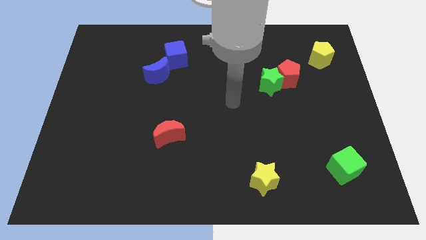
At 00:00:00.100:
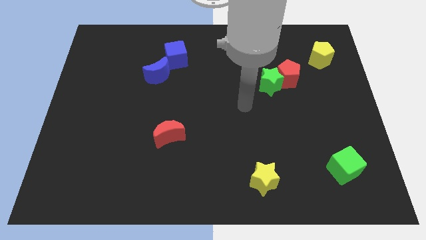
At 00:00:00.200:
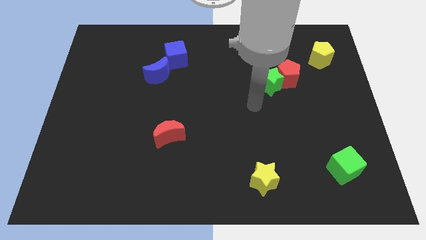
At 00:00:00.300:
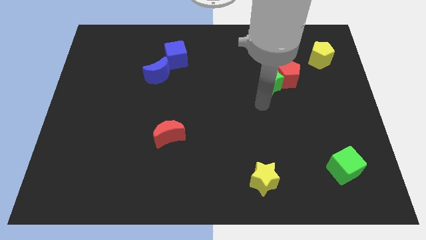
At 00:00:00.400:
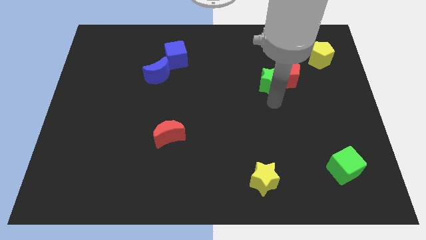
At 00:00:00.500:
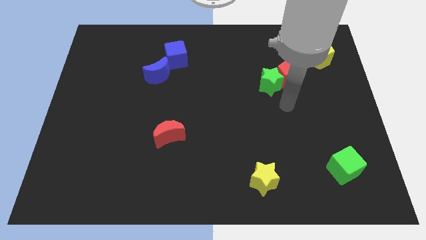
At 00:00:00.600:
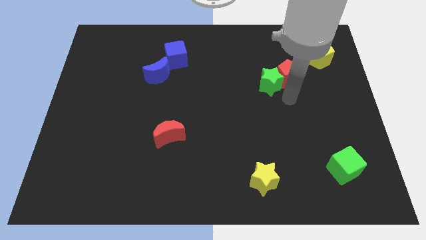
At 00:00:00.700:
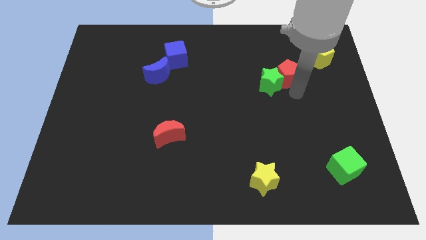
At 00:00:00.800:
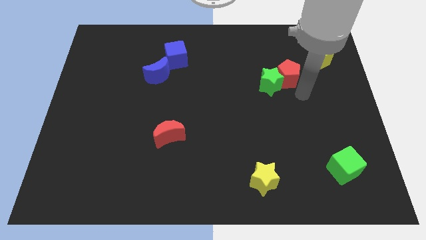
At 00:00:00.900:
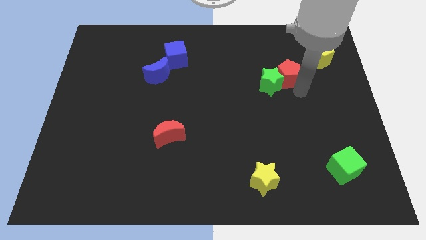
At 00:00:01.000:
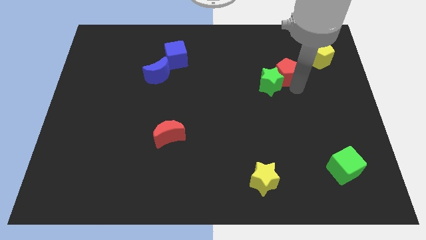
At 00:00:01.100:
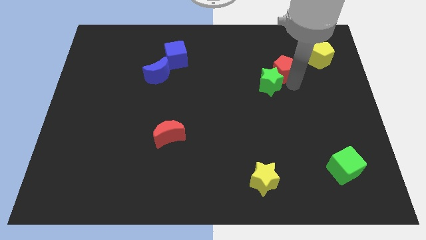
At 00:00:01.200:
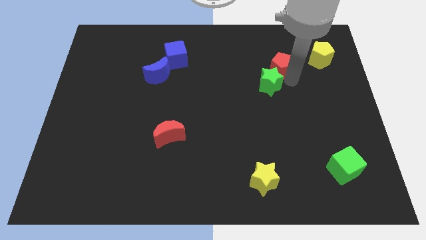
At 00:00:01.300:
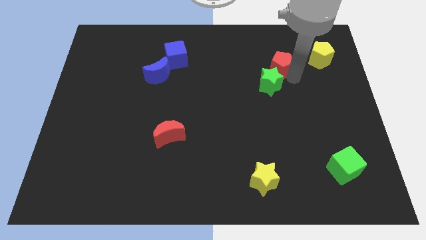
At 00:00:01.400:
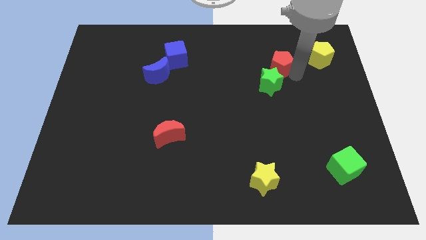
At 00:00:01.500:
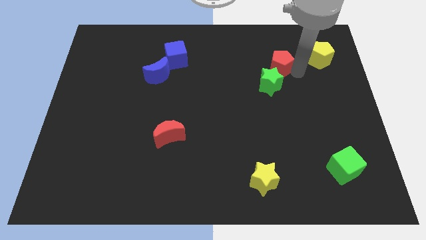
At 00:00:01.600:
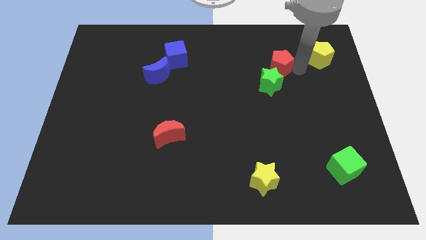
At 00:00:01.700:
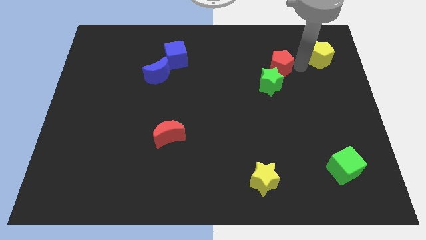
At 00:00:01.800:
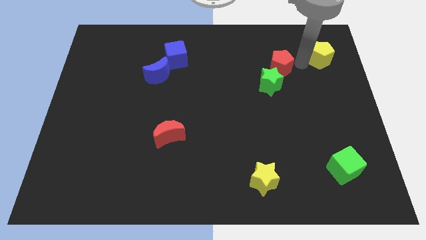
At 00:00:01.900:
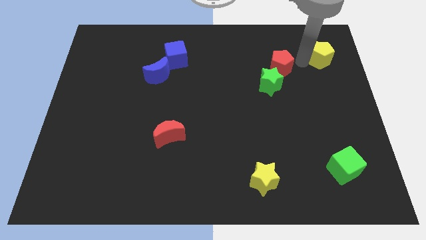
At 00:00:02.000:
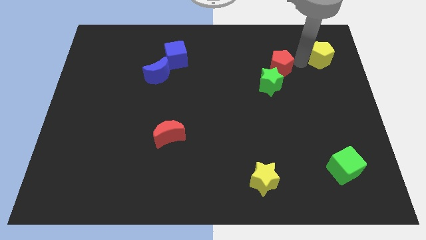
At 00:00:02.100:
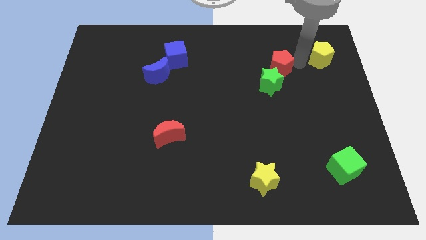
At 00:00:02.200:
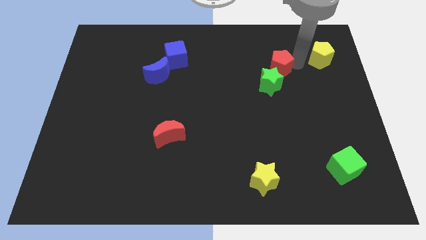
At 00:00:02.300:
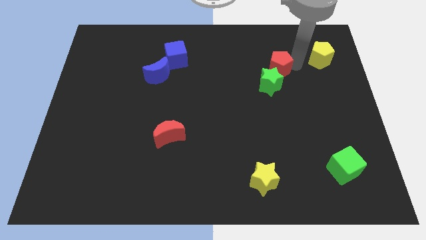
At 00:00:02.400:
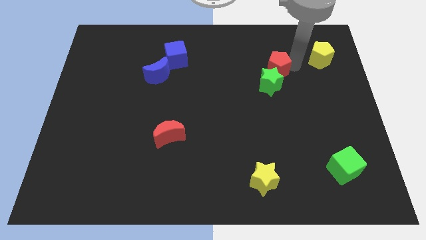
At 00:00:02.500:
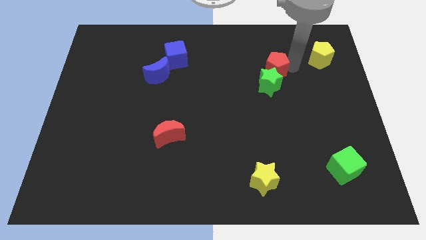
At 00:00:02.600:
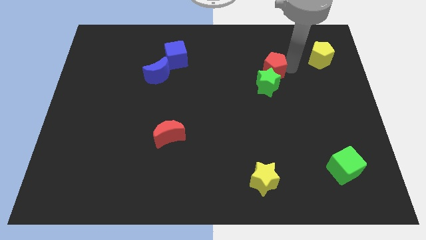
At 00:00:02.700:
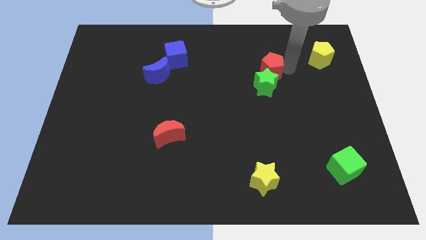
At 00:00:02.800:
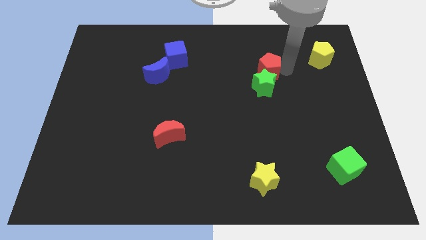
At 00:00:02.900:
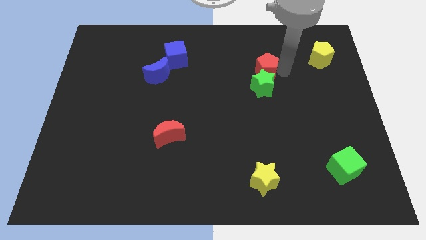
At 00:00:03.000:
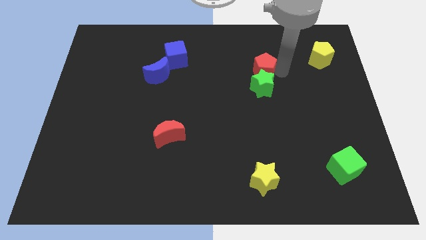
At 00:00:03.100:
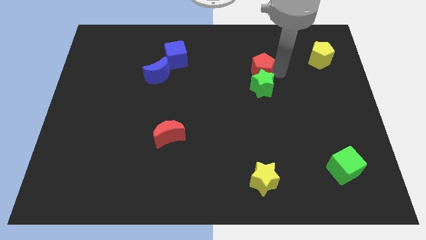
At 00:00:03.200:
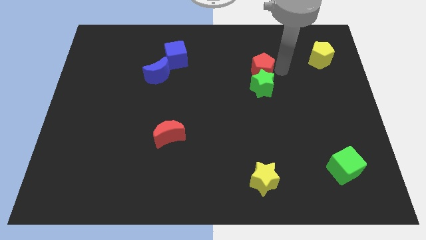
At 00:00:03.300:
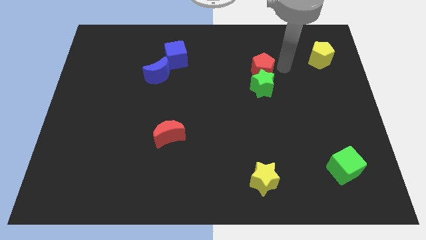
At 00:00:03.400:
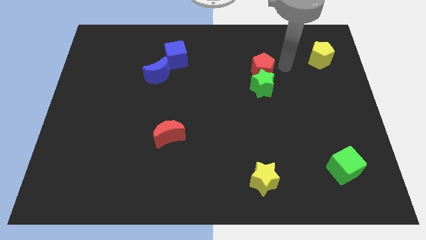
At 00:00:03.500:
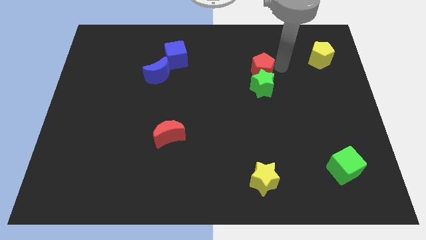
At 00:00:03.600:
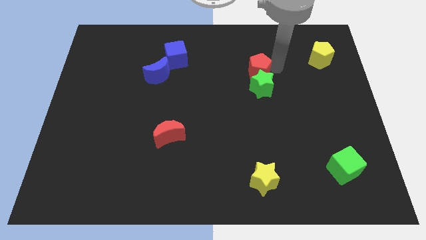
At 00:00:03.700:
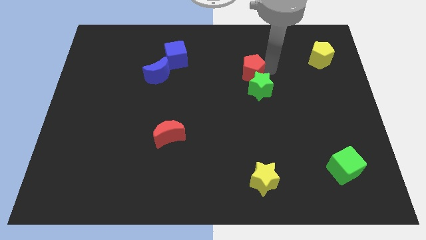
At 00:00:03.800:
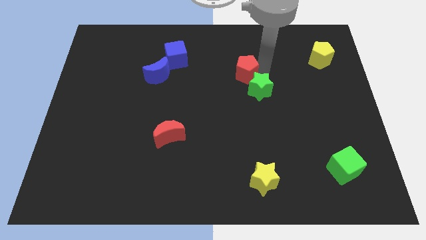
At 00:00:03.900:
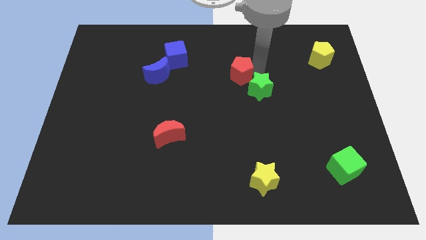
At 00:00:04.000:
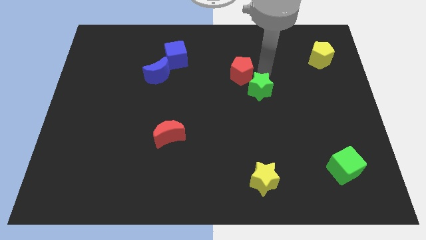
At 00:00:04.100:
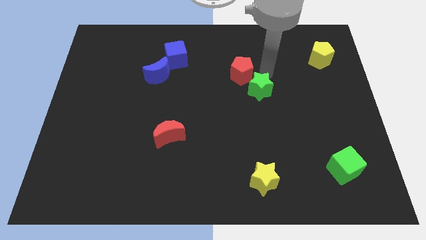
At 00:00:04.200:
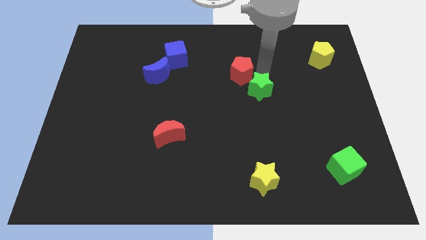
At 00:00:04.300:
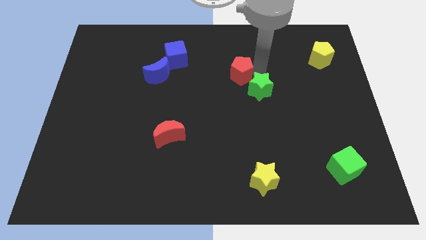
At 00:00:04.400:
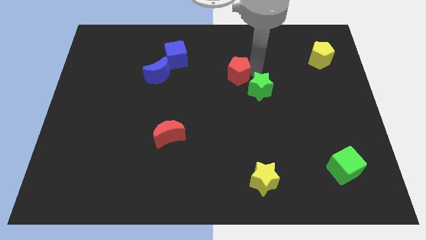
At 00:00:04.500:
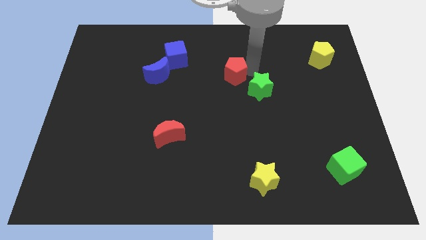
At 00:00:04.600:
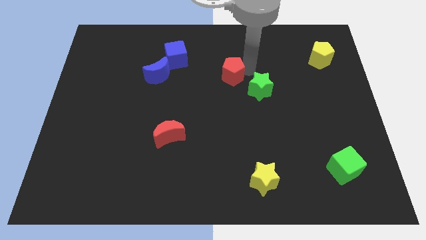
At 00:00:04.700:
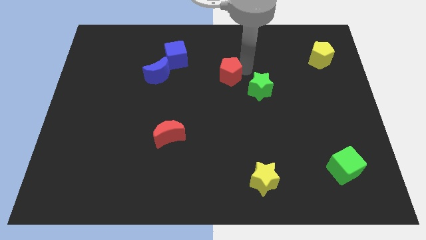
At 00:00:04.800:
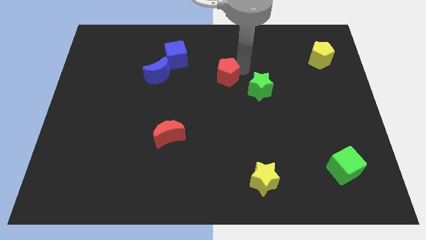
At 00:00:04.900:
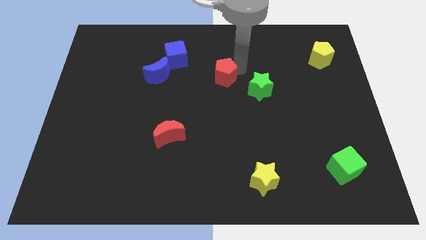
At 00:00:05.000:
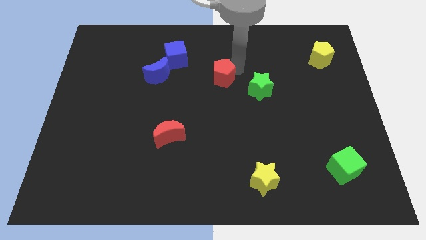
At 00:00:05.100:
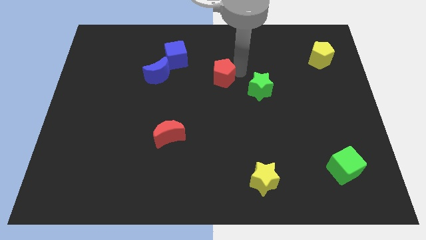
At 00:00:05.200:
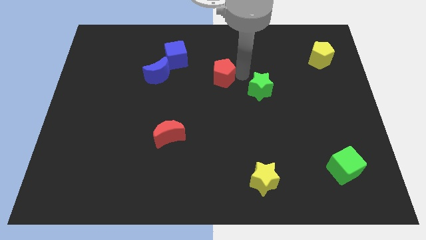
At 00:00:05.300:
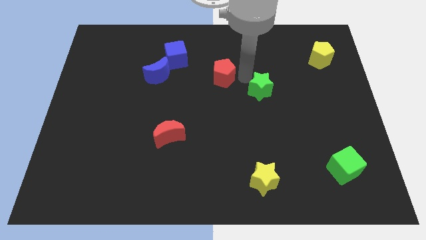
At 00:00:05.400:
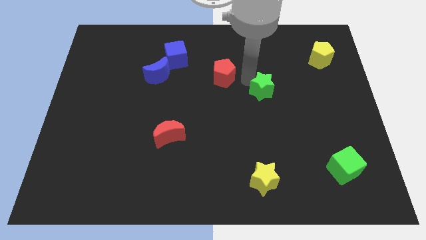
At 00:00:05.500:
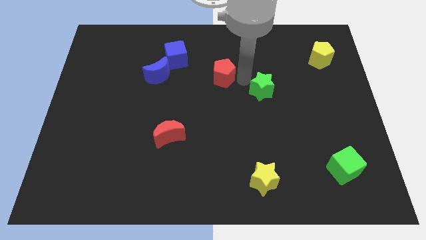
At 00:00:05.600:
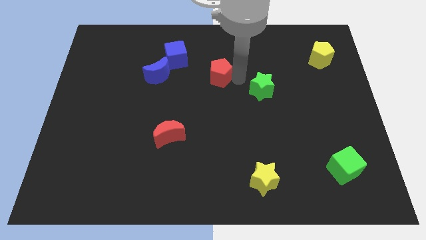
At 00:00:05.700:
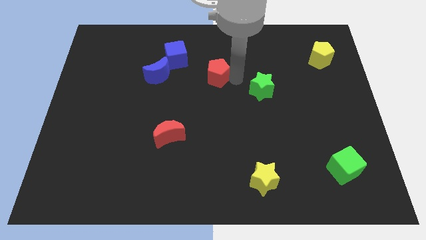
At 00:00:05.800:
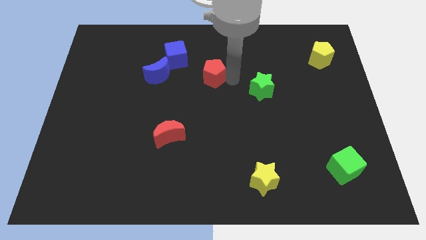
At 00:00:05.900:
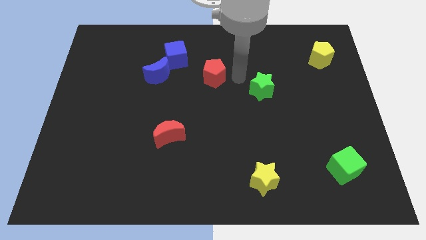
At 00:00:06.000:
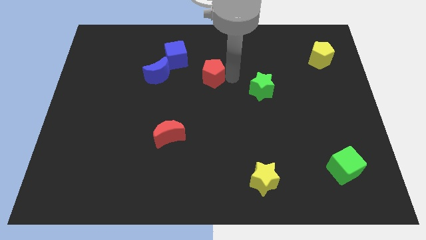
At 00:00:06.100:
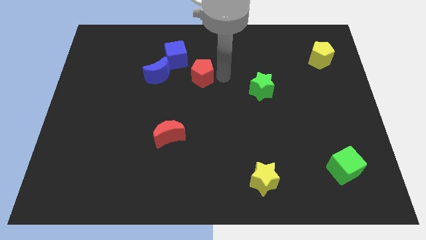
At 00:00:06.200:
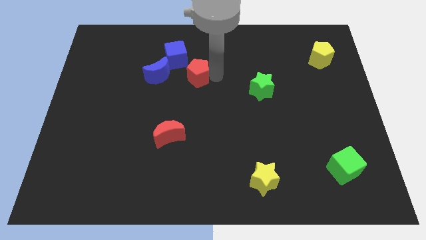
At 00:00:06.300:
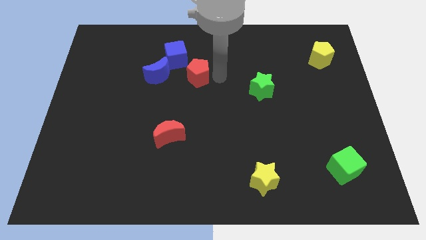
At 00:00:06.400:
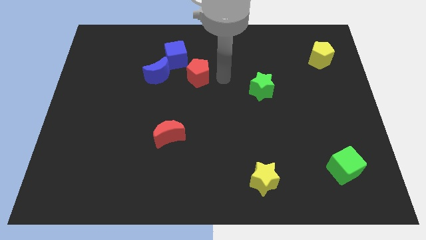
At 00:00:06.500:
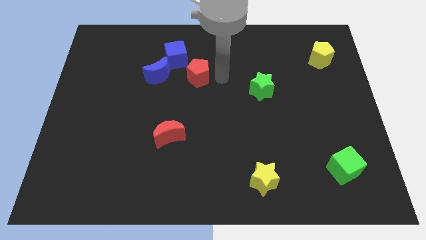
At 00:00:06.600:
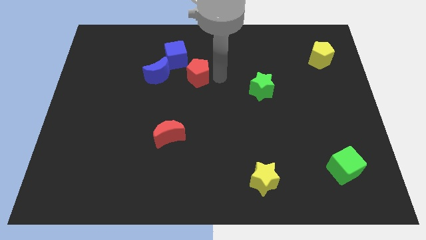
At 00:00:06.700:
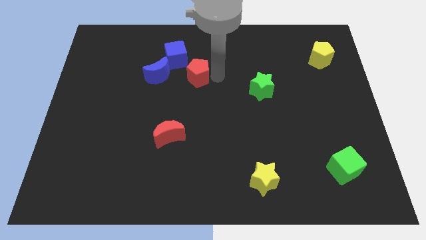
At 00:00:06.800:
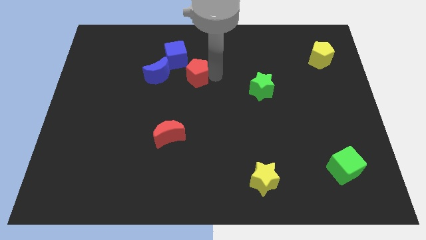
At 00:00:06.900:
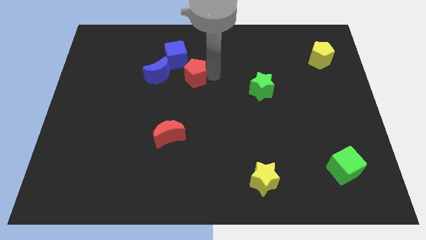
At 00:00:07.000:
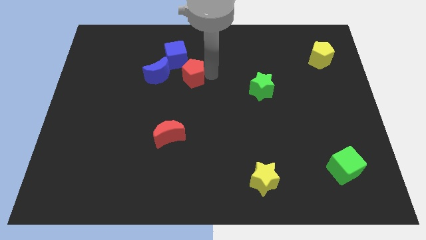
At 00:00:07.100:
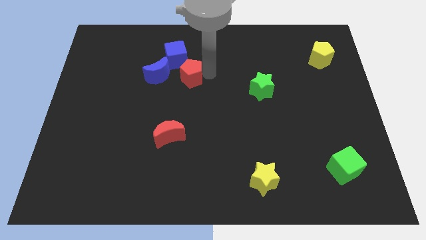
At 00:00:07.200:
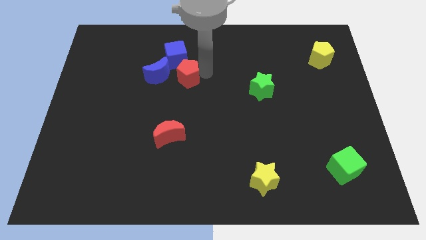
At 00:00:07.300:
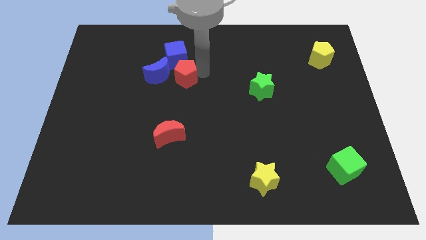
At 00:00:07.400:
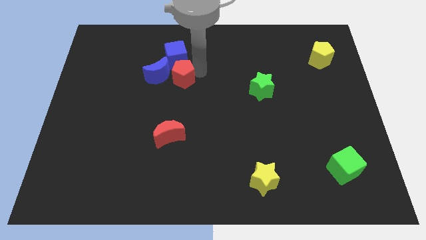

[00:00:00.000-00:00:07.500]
put the red pentagon towards the blue moon

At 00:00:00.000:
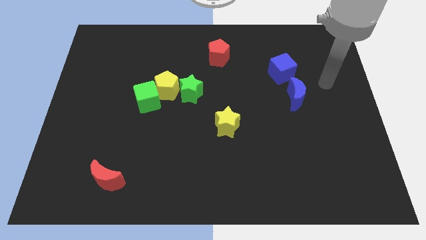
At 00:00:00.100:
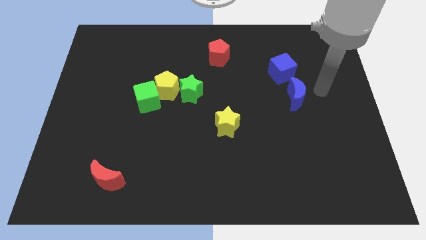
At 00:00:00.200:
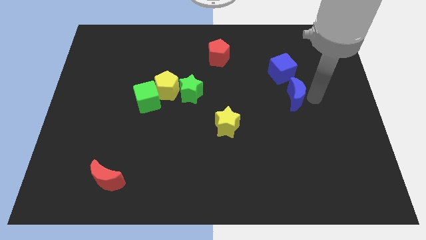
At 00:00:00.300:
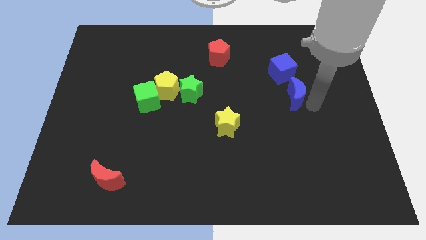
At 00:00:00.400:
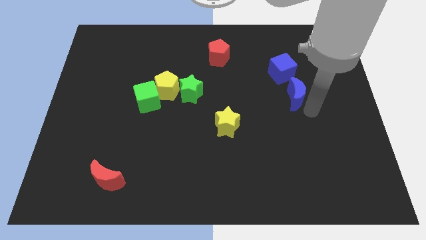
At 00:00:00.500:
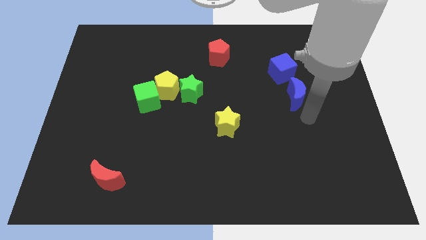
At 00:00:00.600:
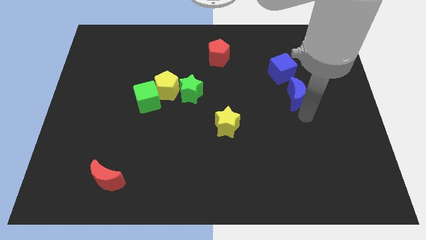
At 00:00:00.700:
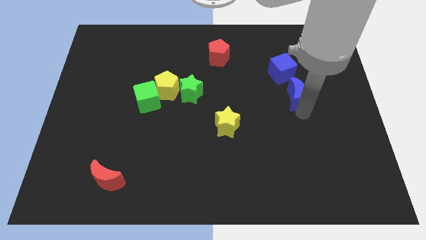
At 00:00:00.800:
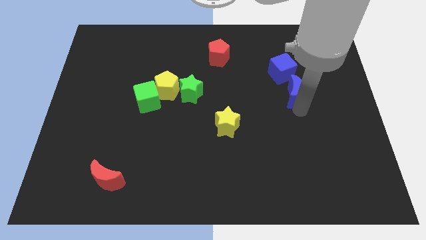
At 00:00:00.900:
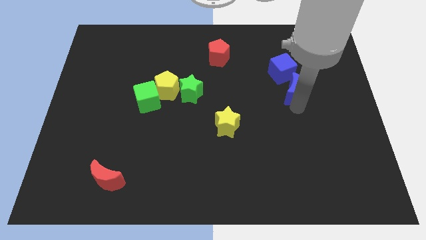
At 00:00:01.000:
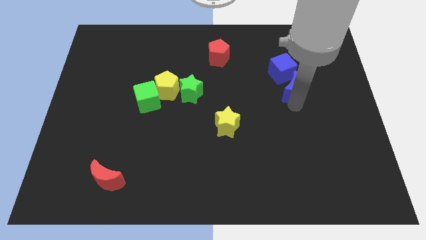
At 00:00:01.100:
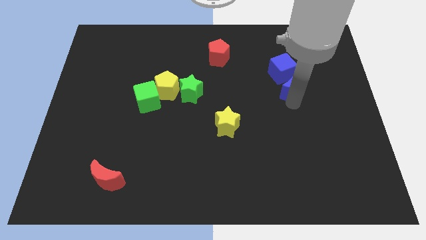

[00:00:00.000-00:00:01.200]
slide the blue moon to the blue cube
